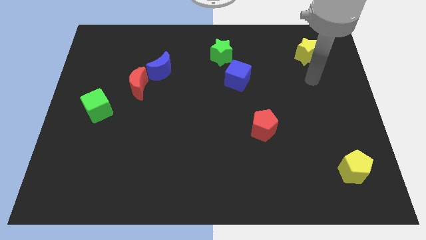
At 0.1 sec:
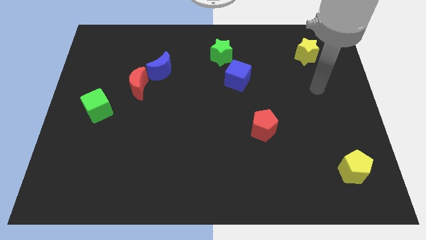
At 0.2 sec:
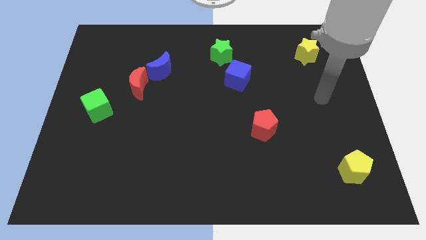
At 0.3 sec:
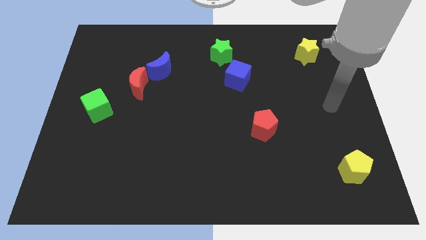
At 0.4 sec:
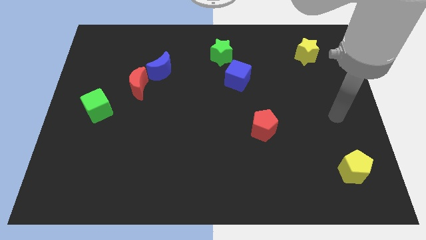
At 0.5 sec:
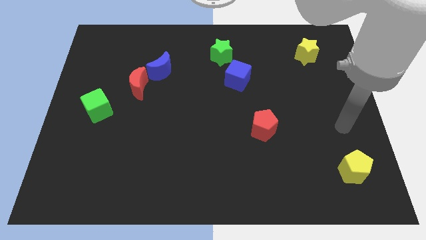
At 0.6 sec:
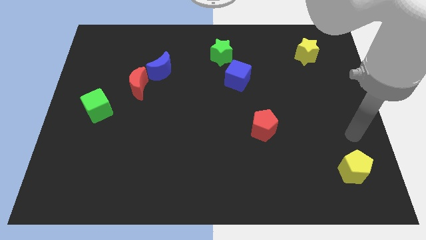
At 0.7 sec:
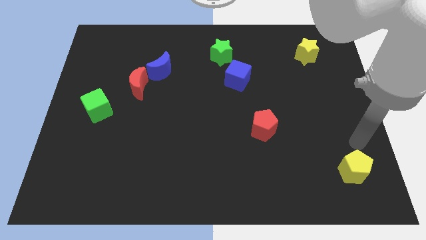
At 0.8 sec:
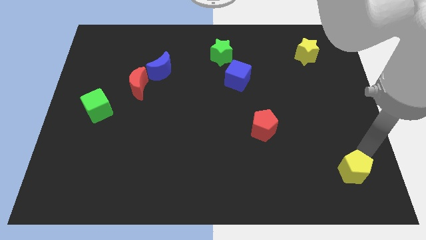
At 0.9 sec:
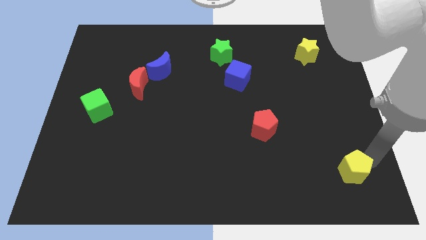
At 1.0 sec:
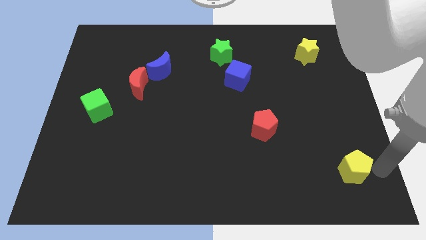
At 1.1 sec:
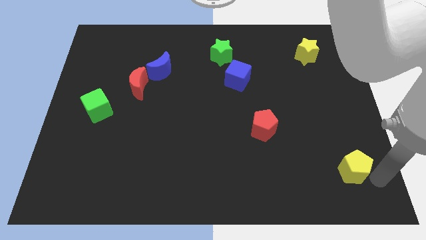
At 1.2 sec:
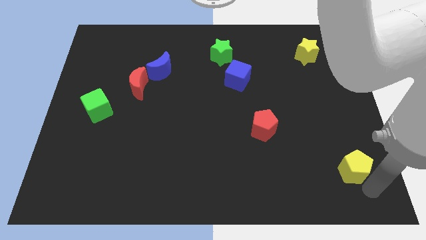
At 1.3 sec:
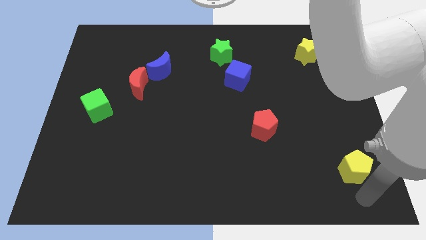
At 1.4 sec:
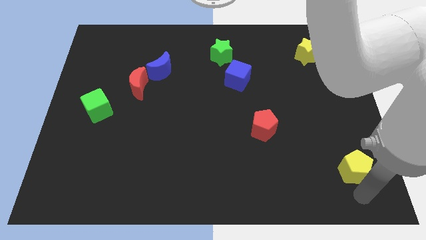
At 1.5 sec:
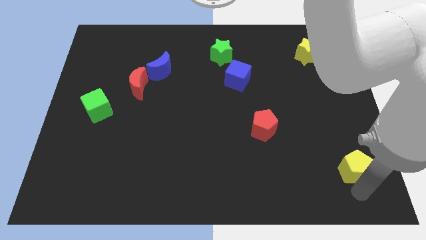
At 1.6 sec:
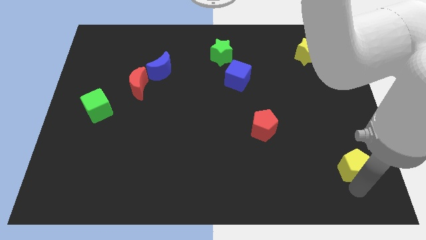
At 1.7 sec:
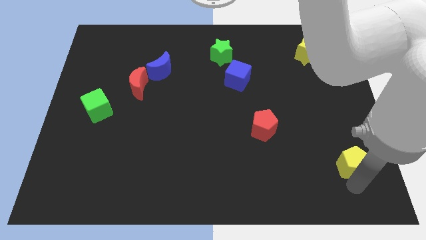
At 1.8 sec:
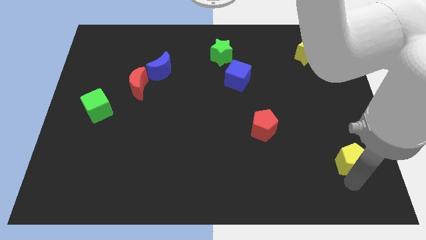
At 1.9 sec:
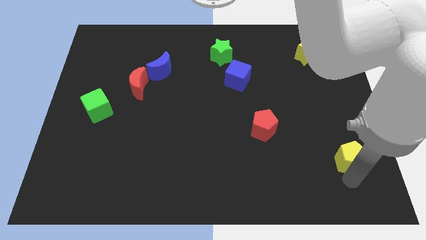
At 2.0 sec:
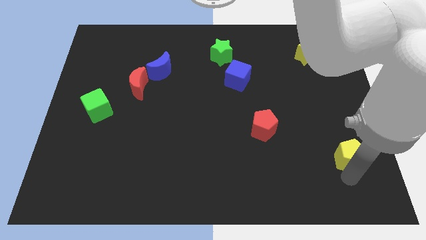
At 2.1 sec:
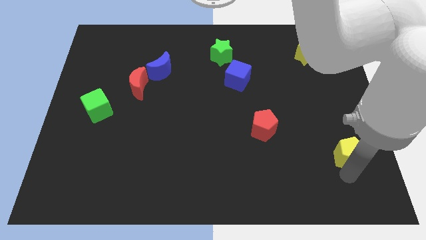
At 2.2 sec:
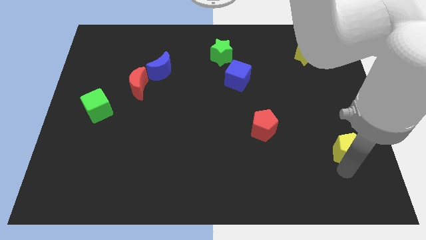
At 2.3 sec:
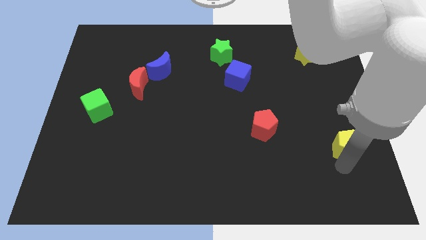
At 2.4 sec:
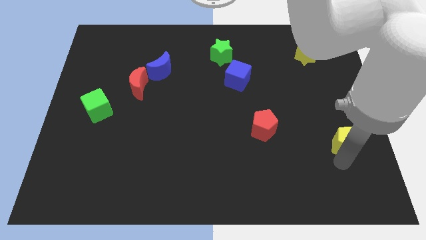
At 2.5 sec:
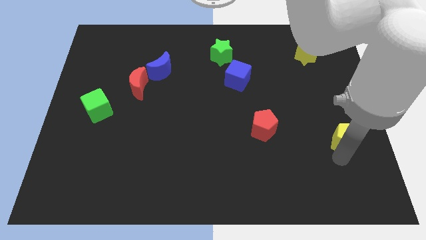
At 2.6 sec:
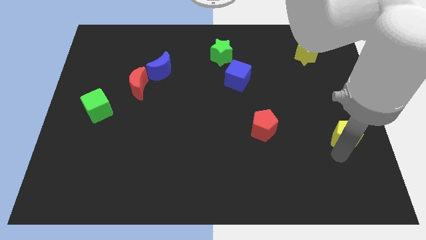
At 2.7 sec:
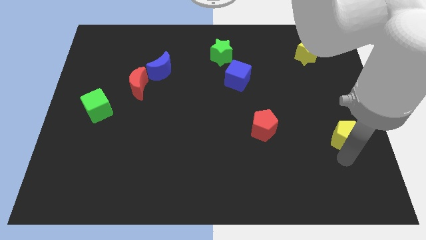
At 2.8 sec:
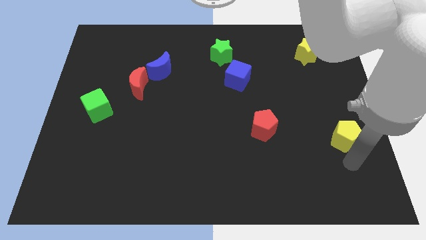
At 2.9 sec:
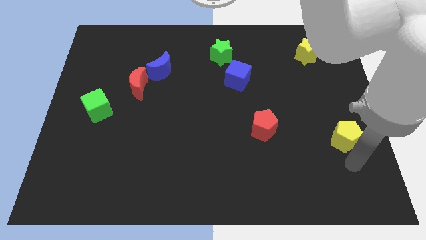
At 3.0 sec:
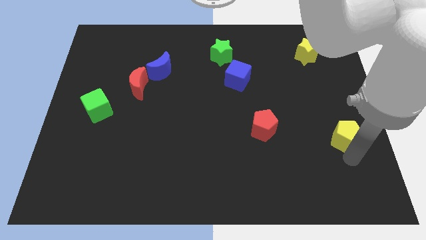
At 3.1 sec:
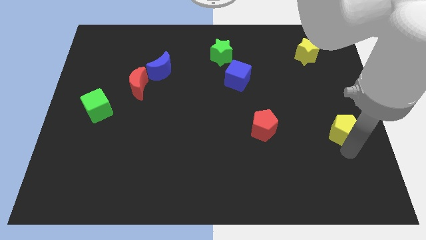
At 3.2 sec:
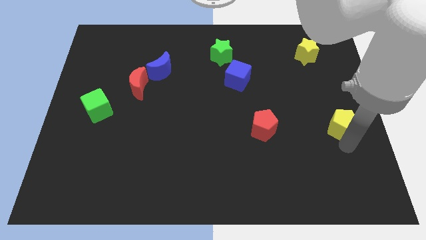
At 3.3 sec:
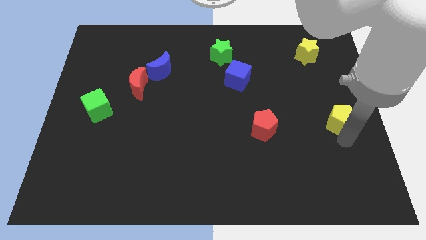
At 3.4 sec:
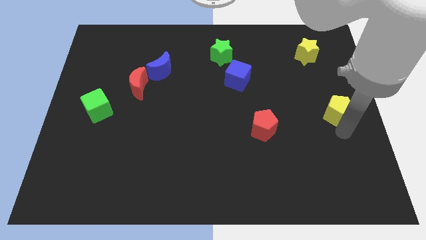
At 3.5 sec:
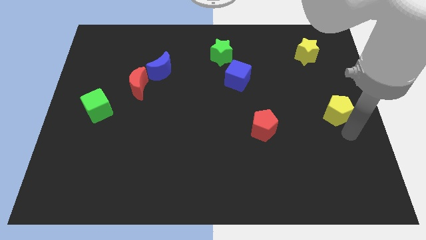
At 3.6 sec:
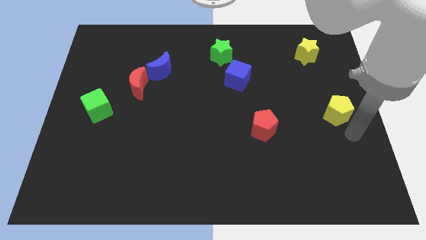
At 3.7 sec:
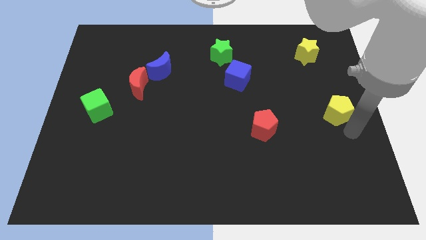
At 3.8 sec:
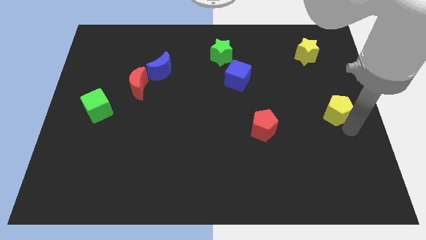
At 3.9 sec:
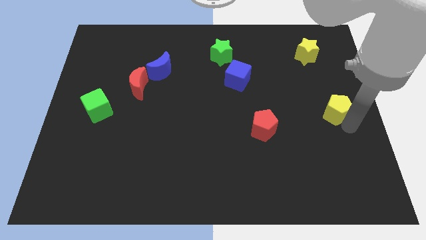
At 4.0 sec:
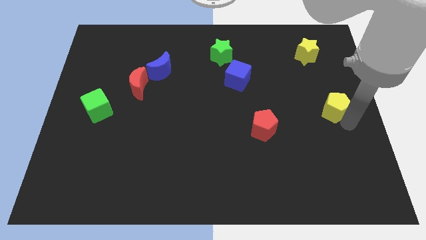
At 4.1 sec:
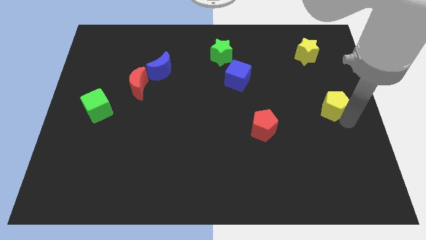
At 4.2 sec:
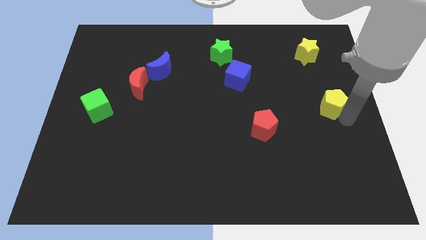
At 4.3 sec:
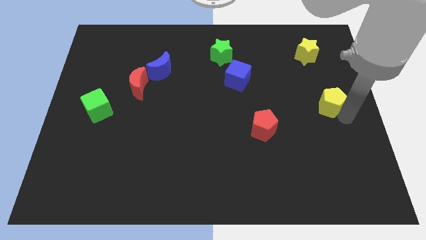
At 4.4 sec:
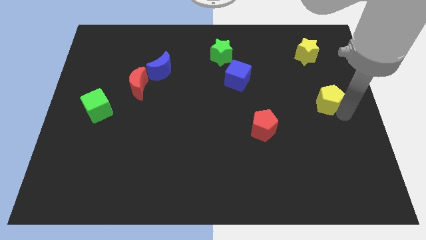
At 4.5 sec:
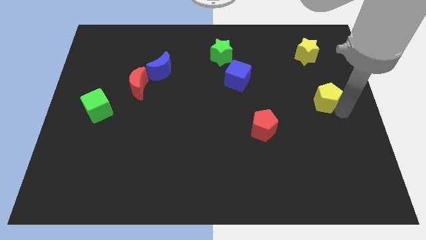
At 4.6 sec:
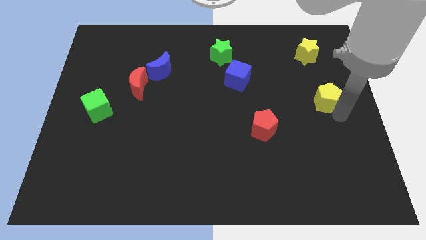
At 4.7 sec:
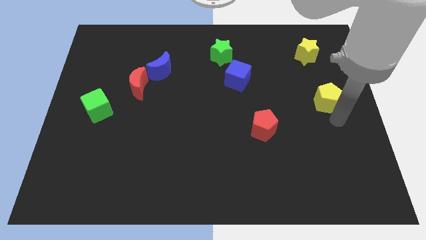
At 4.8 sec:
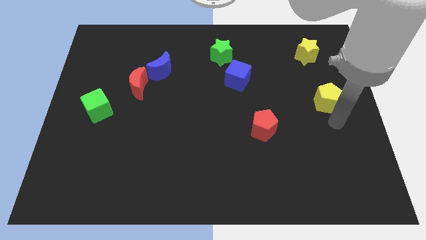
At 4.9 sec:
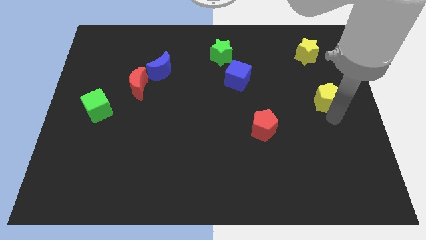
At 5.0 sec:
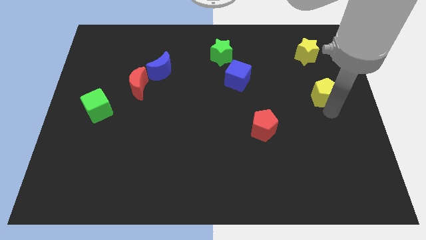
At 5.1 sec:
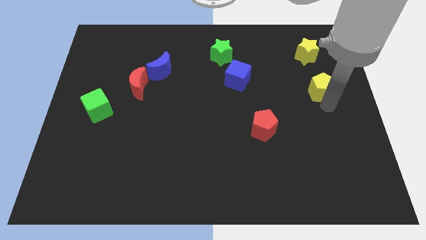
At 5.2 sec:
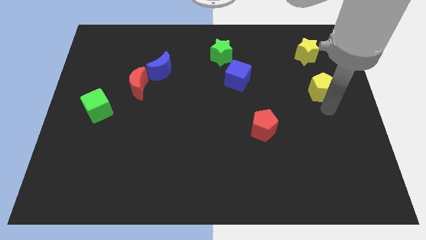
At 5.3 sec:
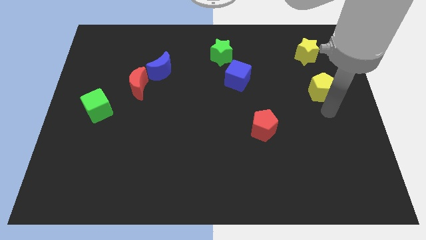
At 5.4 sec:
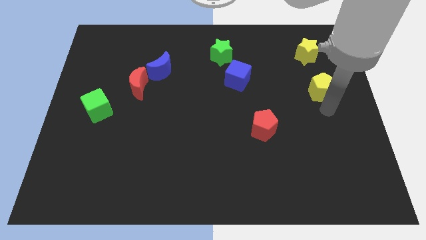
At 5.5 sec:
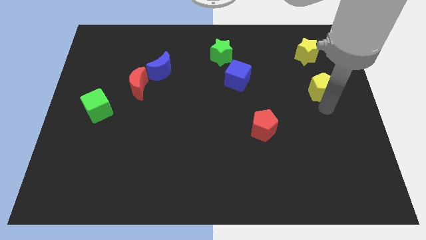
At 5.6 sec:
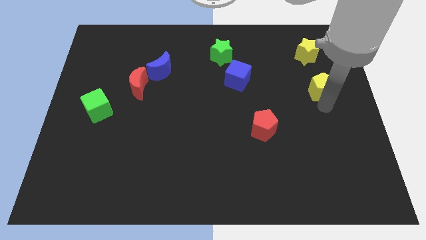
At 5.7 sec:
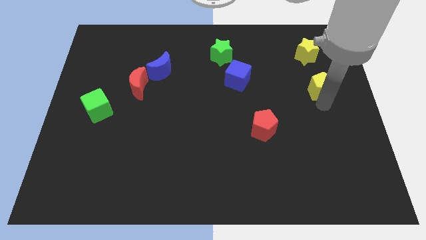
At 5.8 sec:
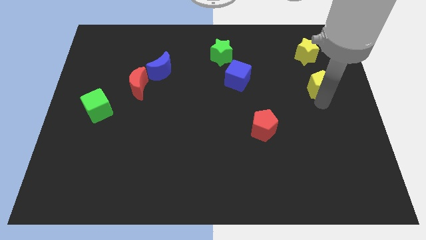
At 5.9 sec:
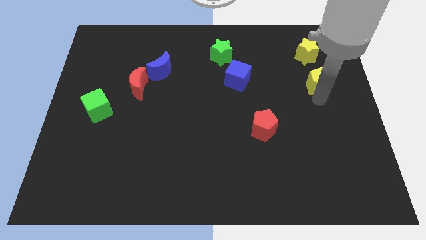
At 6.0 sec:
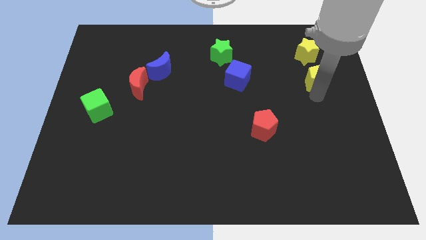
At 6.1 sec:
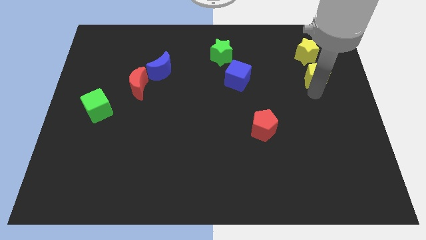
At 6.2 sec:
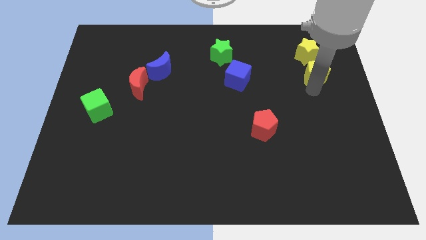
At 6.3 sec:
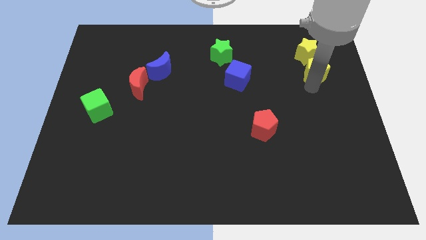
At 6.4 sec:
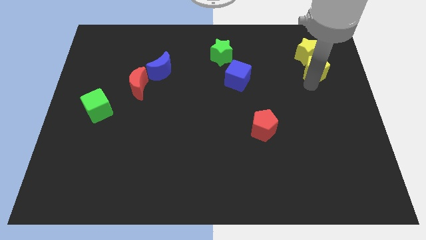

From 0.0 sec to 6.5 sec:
move the yellow pentagon close to the yellow star

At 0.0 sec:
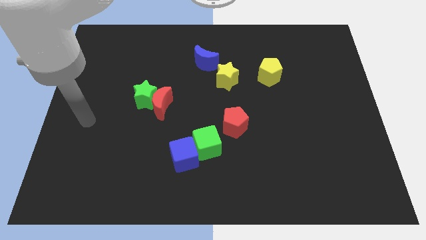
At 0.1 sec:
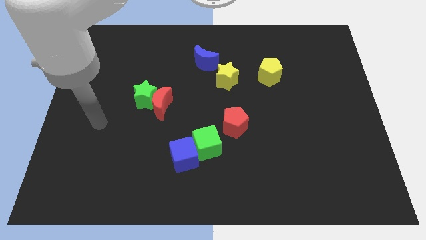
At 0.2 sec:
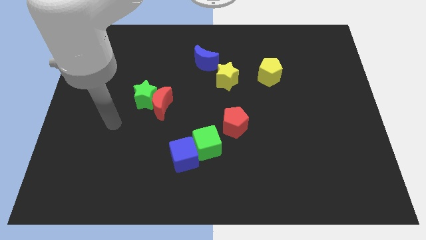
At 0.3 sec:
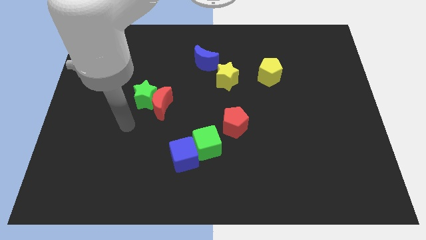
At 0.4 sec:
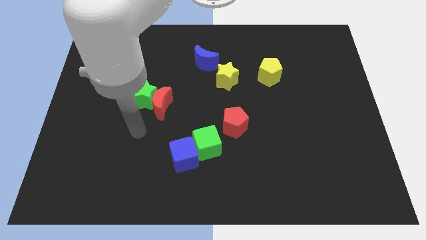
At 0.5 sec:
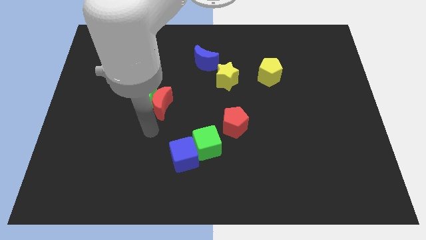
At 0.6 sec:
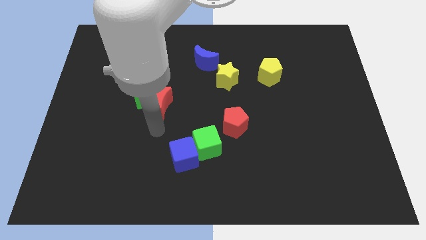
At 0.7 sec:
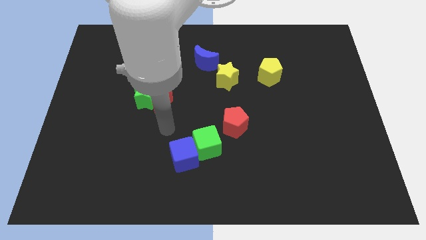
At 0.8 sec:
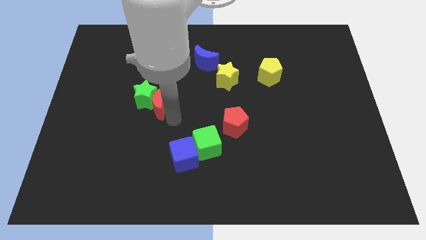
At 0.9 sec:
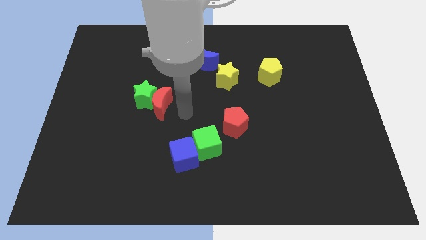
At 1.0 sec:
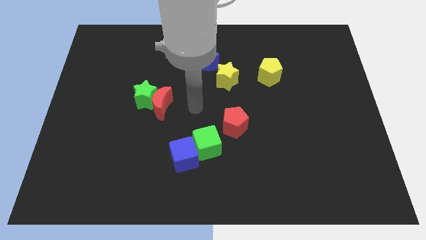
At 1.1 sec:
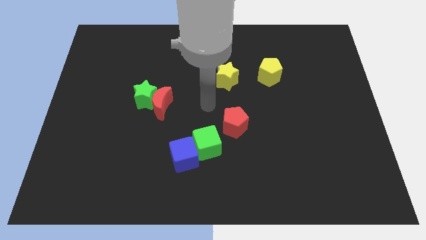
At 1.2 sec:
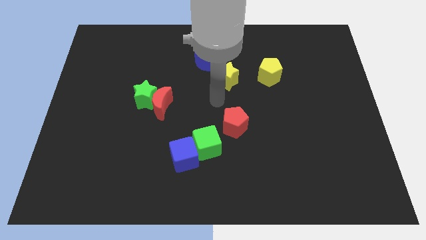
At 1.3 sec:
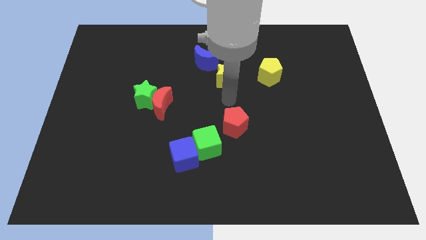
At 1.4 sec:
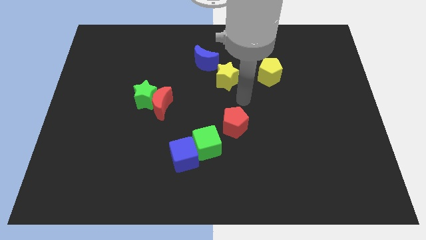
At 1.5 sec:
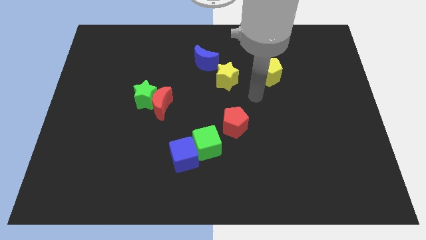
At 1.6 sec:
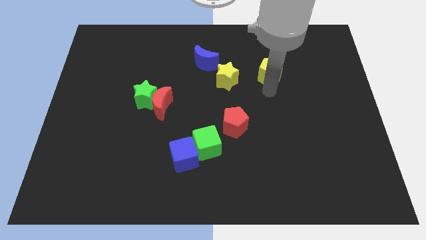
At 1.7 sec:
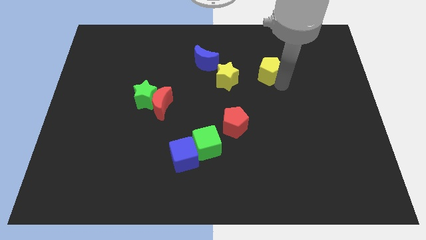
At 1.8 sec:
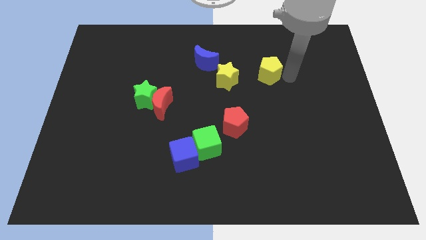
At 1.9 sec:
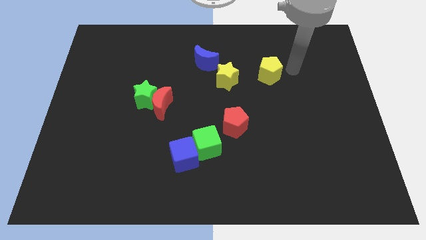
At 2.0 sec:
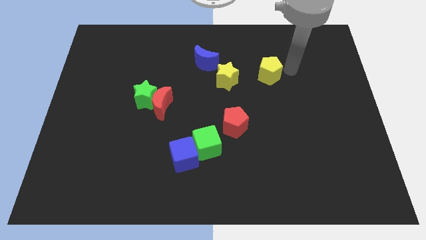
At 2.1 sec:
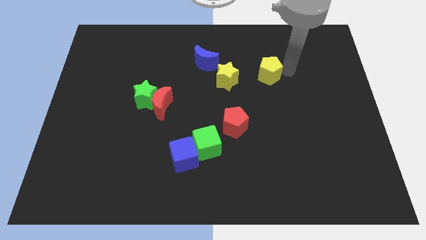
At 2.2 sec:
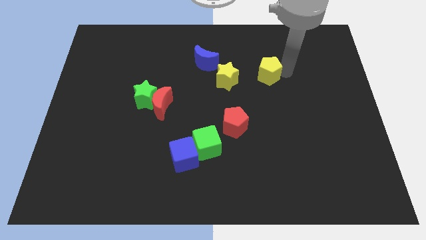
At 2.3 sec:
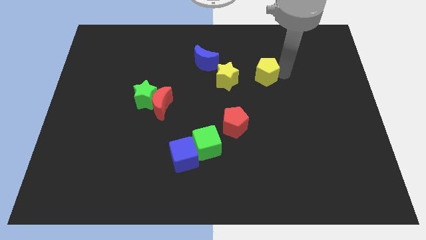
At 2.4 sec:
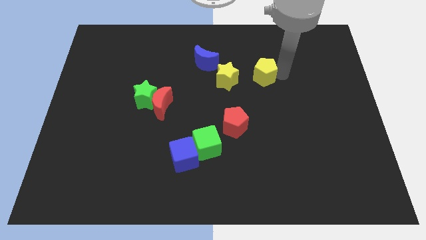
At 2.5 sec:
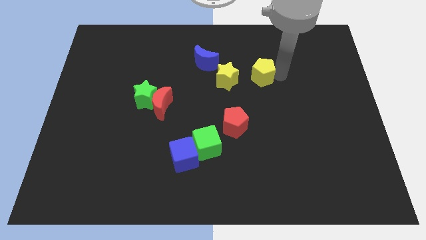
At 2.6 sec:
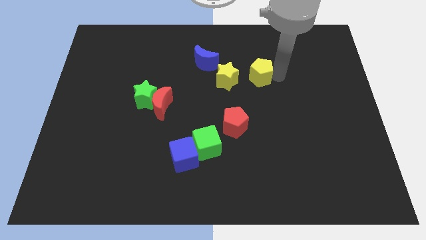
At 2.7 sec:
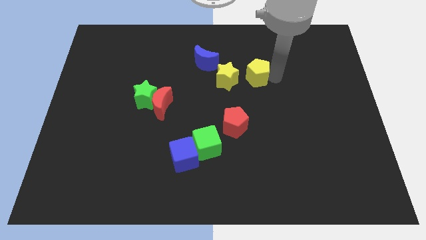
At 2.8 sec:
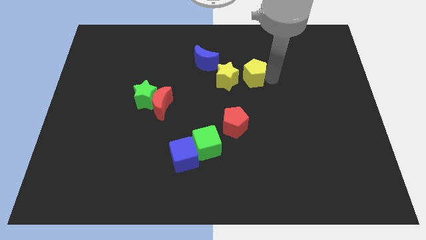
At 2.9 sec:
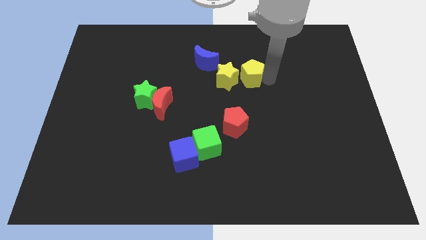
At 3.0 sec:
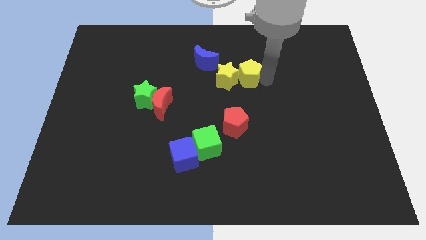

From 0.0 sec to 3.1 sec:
slide the yellow pentagon to the yellow star
